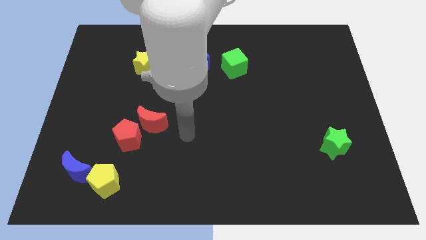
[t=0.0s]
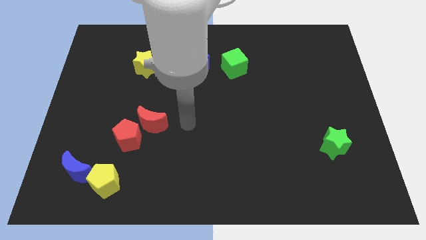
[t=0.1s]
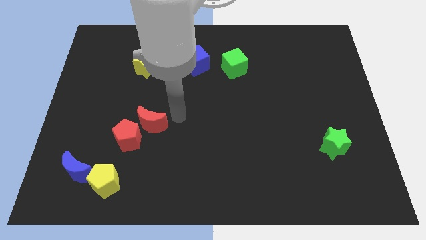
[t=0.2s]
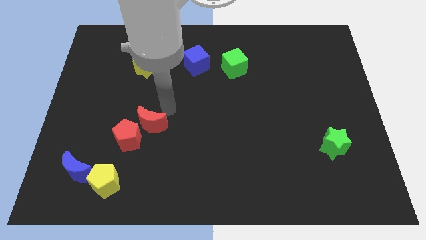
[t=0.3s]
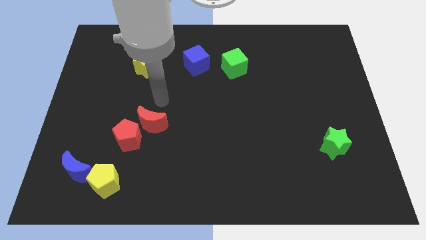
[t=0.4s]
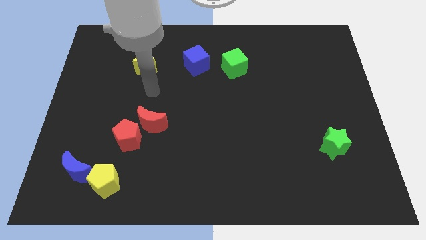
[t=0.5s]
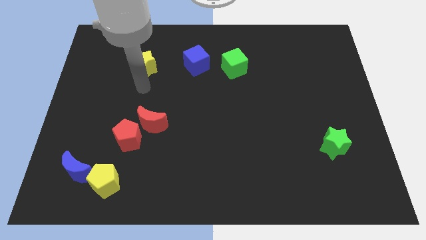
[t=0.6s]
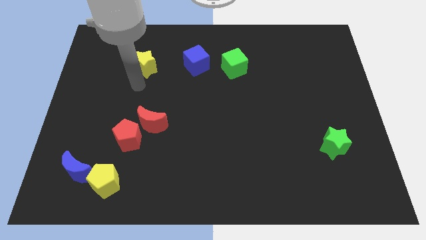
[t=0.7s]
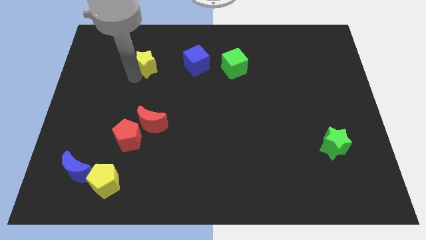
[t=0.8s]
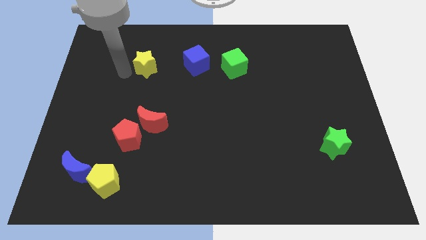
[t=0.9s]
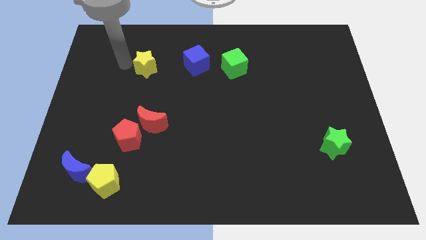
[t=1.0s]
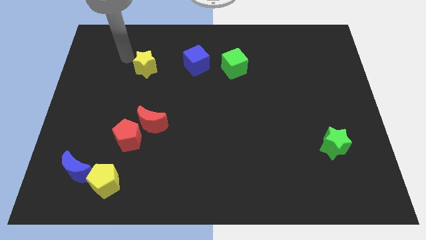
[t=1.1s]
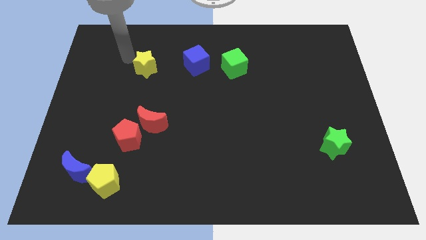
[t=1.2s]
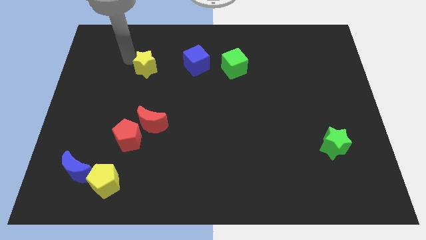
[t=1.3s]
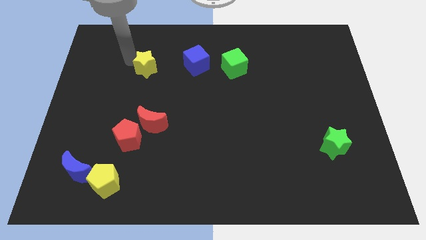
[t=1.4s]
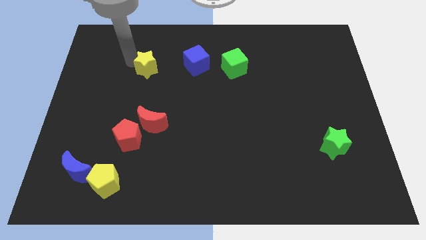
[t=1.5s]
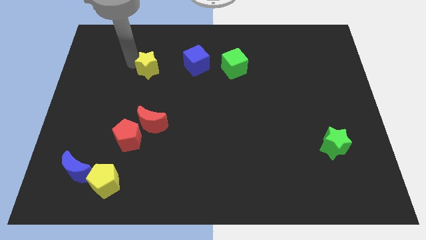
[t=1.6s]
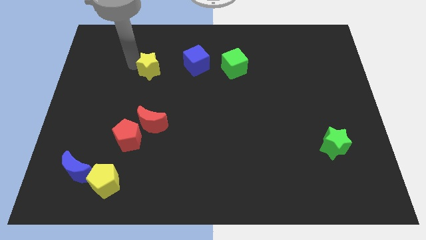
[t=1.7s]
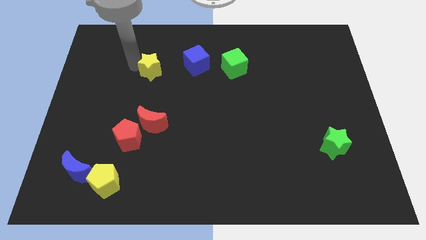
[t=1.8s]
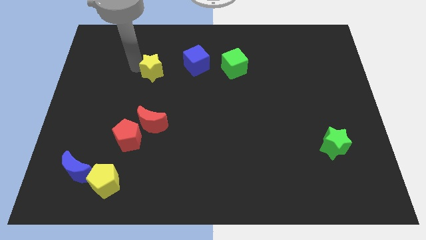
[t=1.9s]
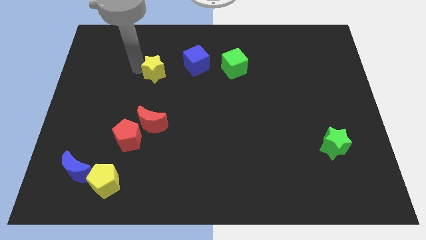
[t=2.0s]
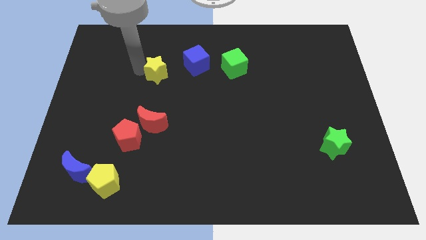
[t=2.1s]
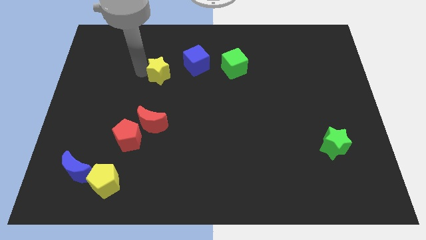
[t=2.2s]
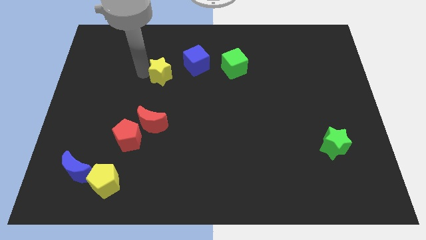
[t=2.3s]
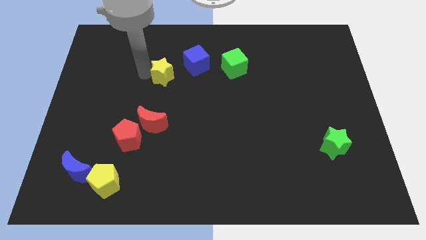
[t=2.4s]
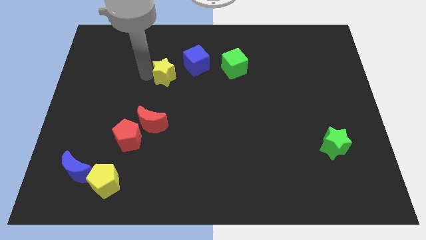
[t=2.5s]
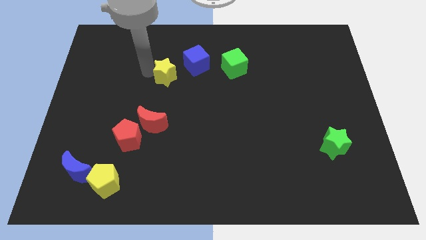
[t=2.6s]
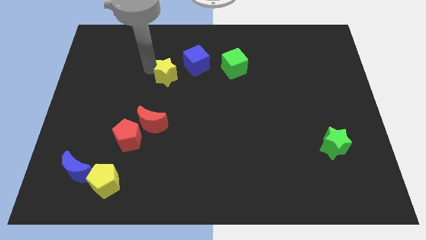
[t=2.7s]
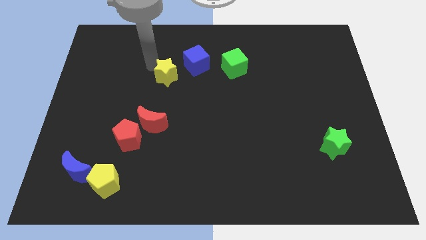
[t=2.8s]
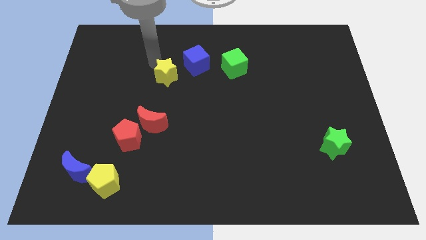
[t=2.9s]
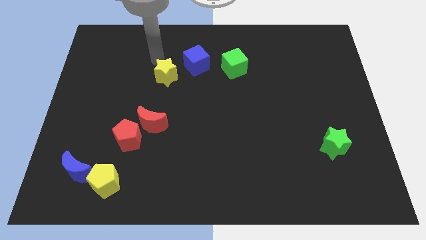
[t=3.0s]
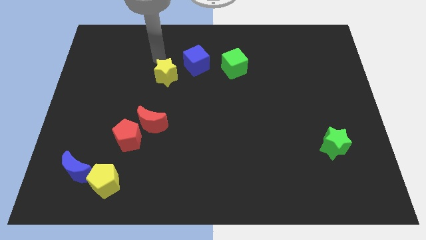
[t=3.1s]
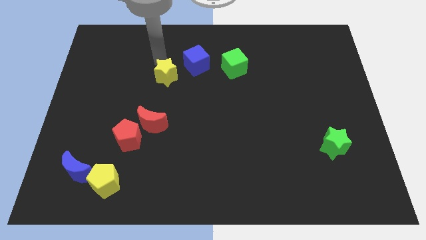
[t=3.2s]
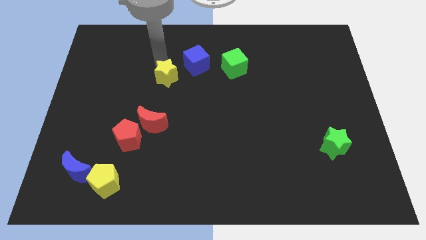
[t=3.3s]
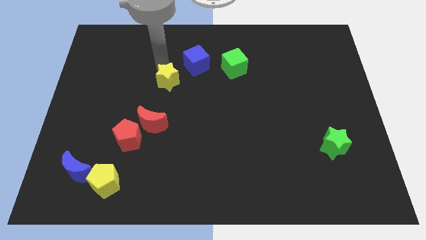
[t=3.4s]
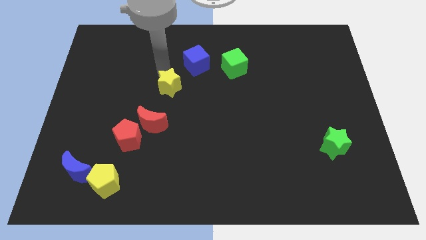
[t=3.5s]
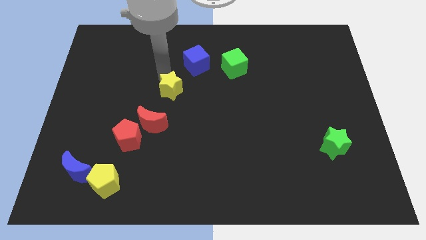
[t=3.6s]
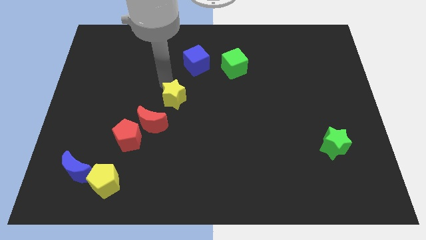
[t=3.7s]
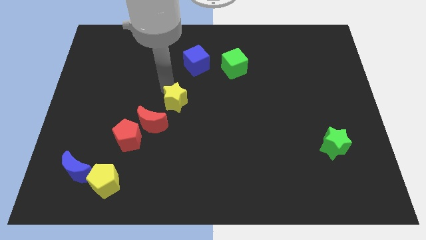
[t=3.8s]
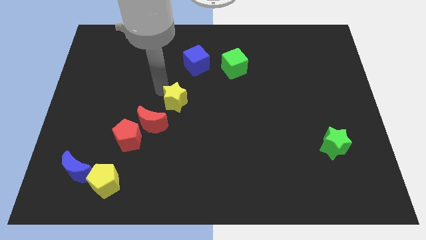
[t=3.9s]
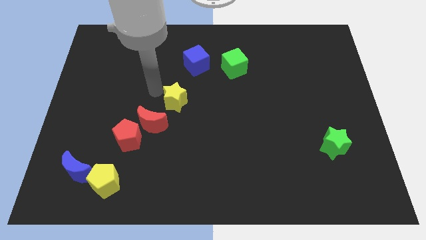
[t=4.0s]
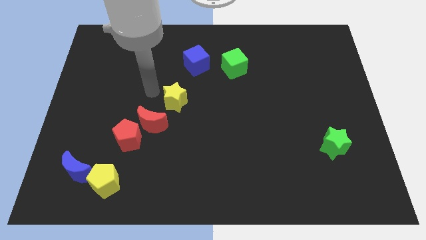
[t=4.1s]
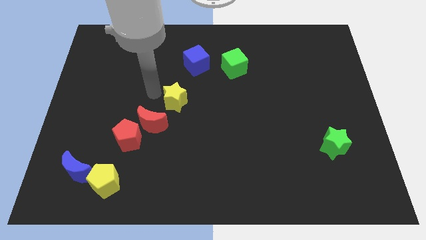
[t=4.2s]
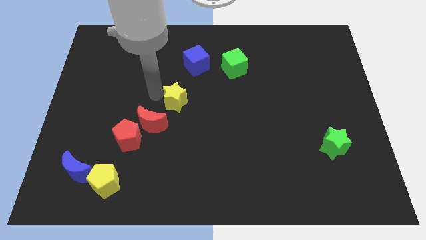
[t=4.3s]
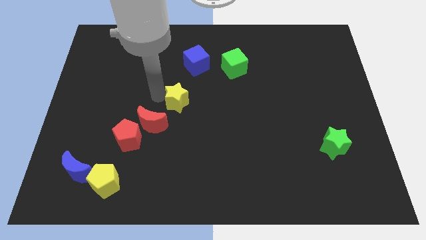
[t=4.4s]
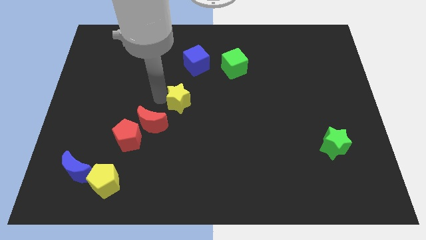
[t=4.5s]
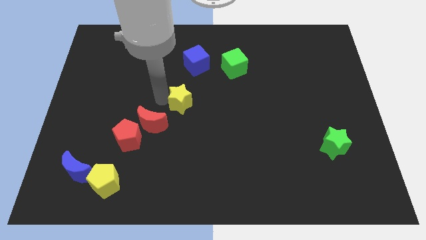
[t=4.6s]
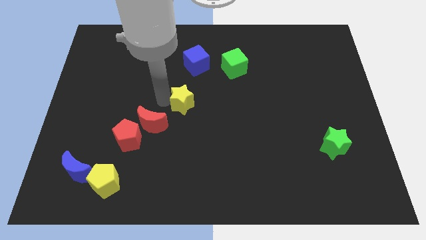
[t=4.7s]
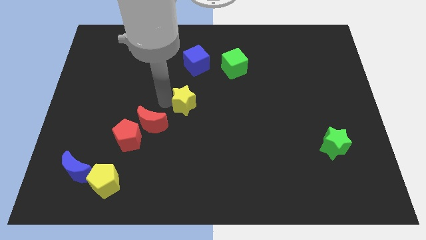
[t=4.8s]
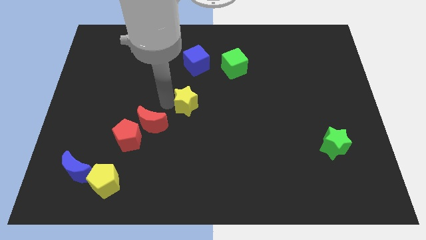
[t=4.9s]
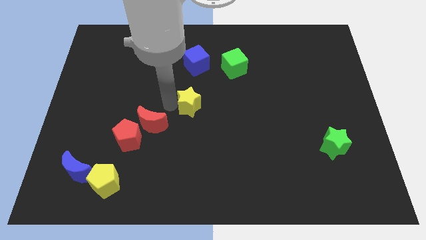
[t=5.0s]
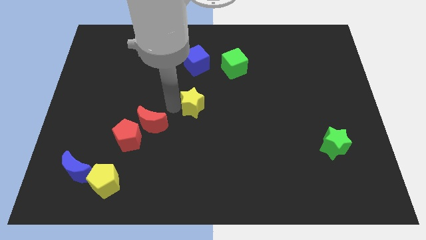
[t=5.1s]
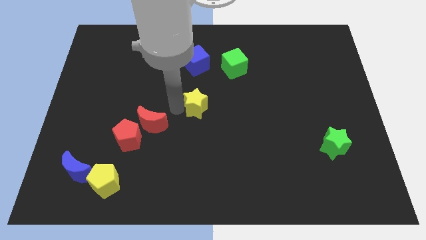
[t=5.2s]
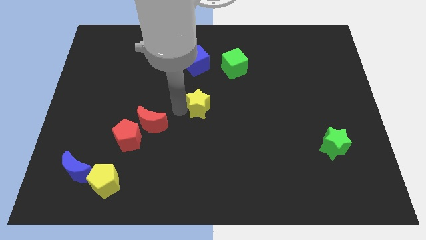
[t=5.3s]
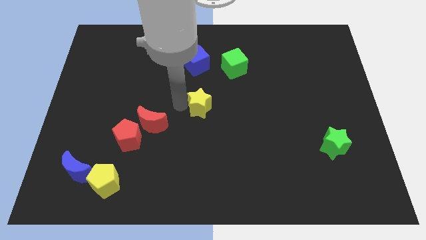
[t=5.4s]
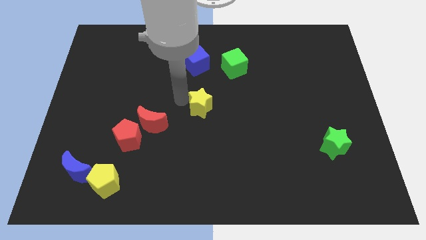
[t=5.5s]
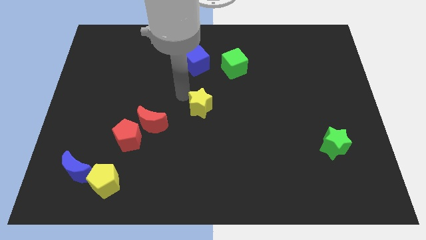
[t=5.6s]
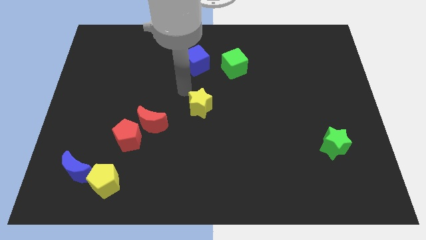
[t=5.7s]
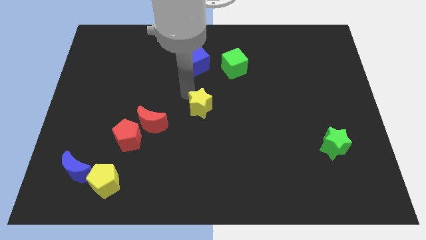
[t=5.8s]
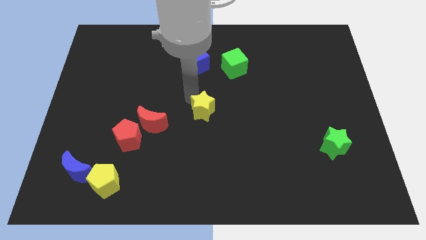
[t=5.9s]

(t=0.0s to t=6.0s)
slide the yellow star down and then to the right

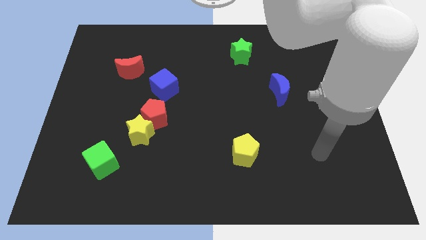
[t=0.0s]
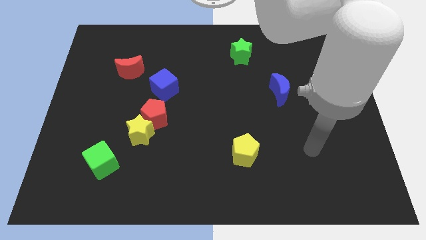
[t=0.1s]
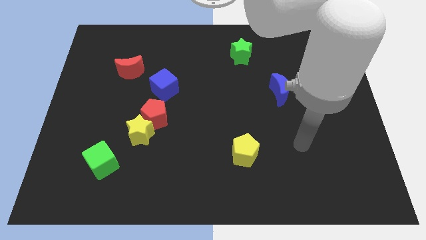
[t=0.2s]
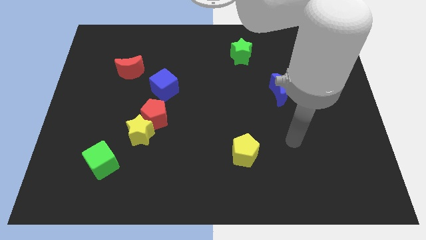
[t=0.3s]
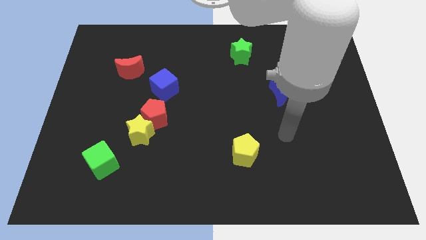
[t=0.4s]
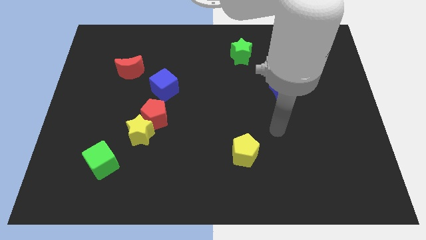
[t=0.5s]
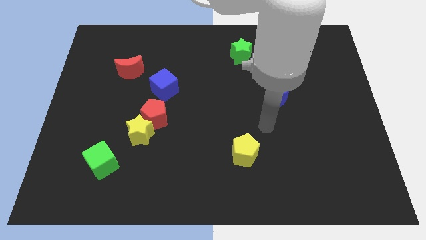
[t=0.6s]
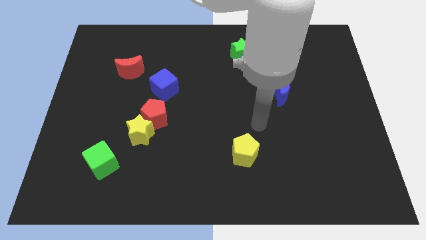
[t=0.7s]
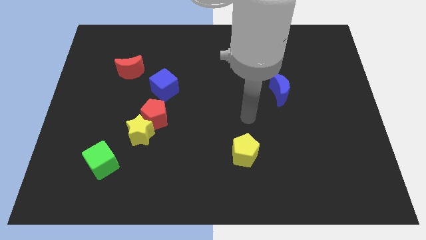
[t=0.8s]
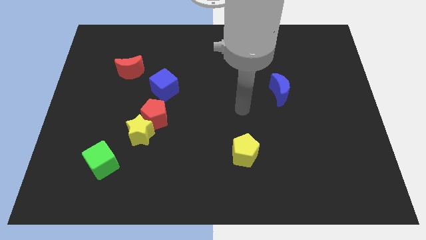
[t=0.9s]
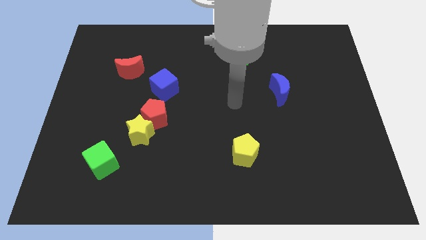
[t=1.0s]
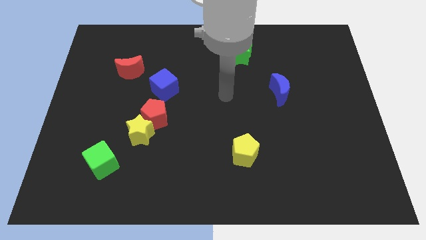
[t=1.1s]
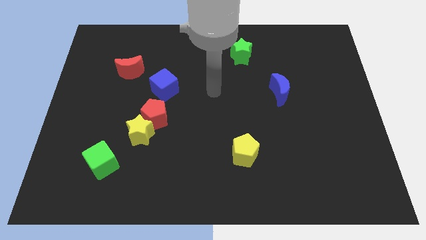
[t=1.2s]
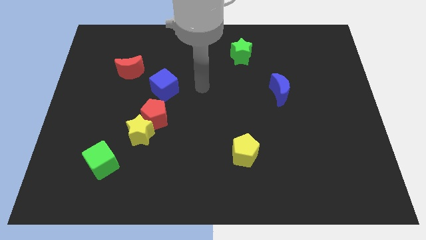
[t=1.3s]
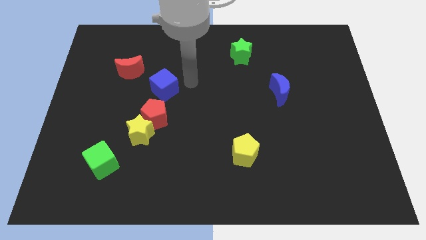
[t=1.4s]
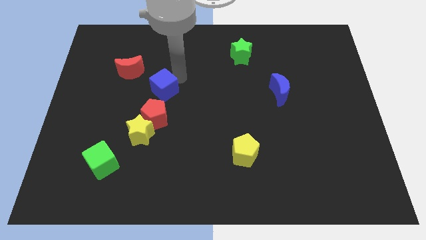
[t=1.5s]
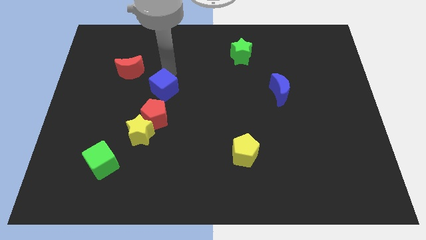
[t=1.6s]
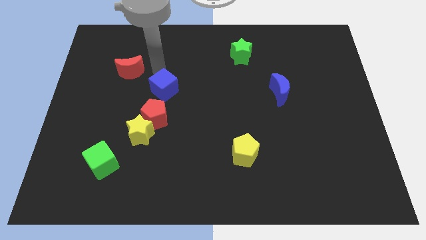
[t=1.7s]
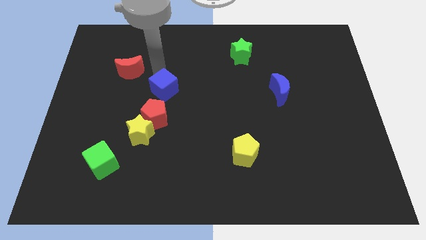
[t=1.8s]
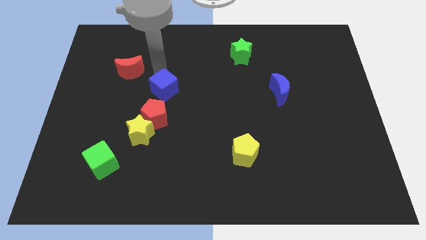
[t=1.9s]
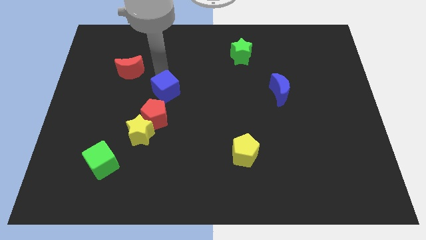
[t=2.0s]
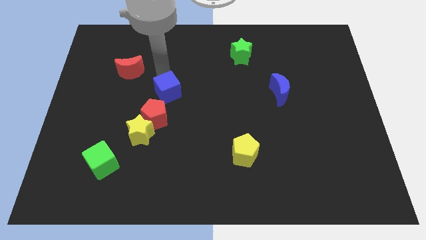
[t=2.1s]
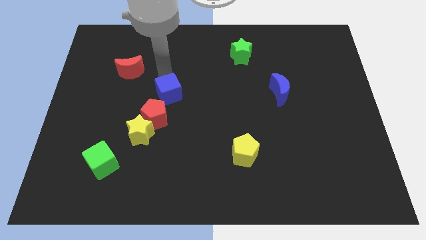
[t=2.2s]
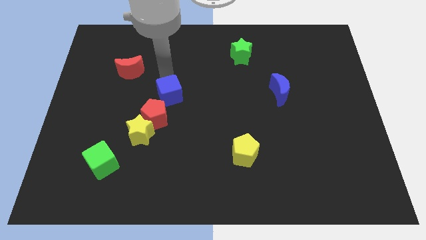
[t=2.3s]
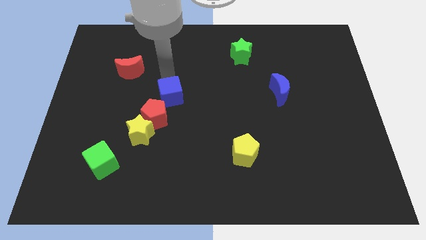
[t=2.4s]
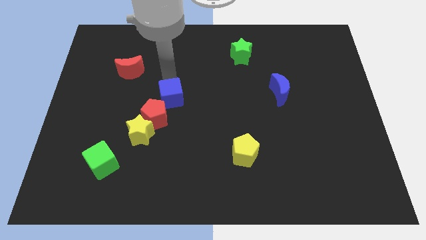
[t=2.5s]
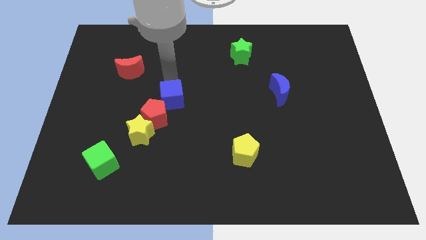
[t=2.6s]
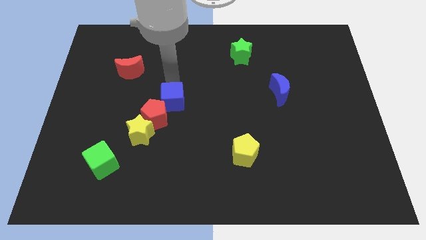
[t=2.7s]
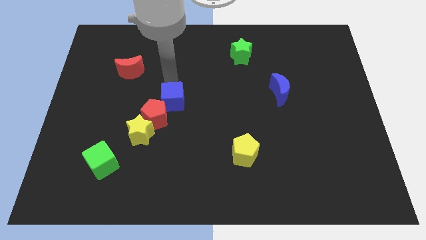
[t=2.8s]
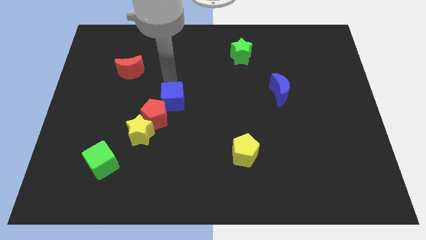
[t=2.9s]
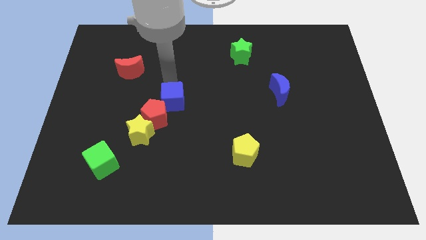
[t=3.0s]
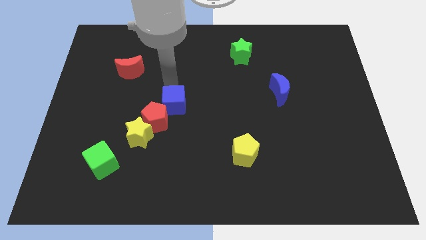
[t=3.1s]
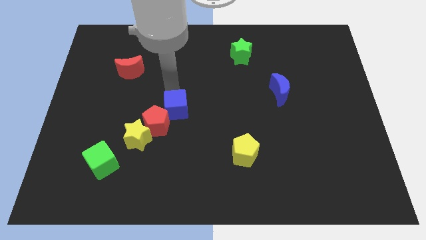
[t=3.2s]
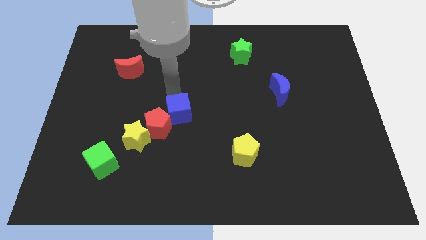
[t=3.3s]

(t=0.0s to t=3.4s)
slightly move the blue cube downwards
